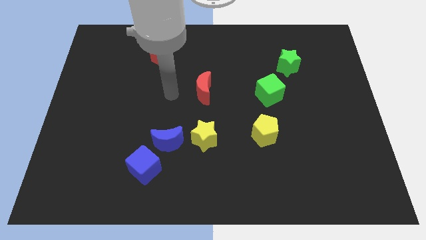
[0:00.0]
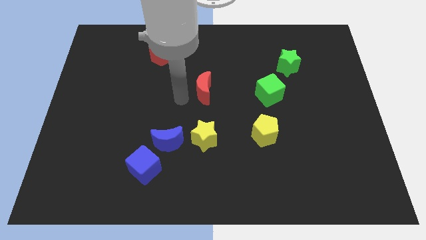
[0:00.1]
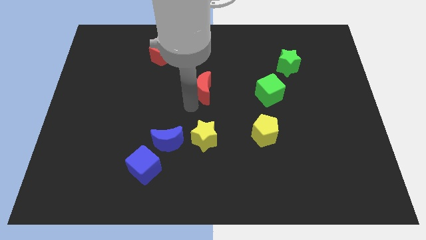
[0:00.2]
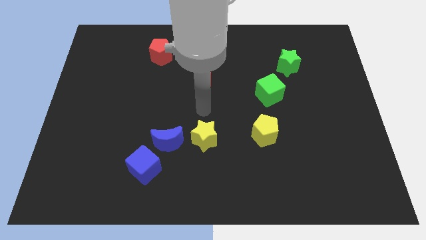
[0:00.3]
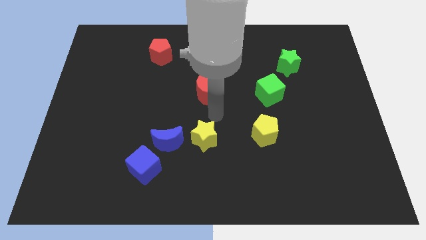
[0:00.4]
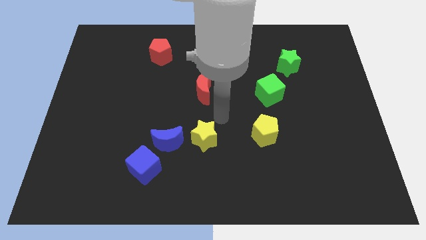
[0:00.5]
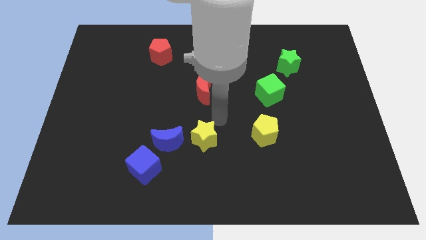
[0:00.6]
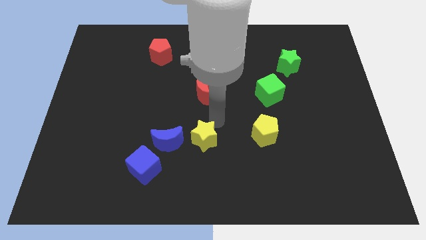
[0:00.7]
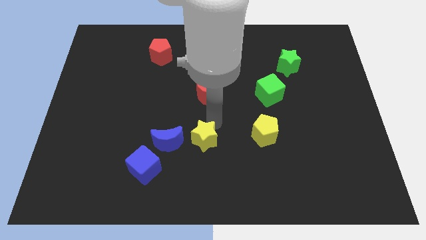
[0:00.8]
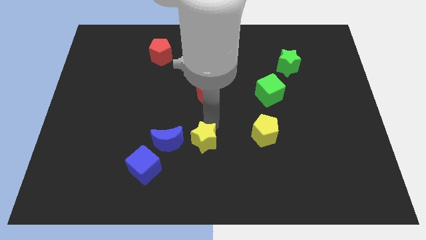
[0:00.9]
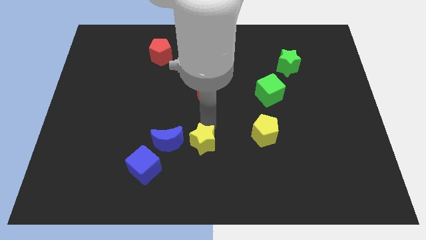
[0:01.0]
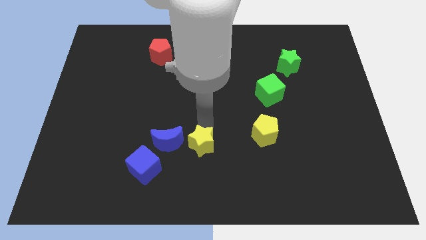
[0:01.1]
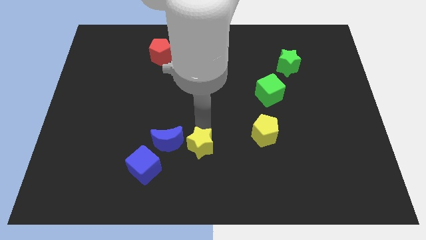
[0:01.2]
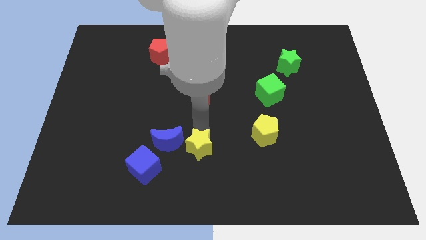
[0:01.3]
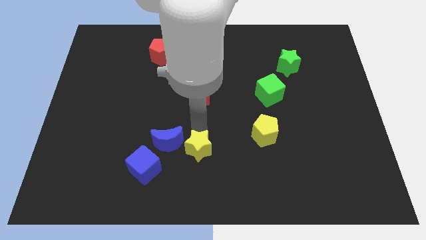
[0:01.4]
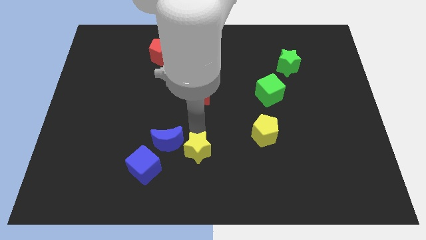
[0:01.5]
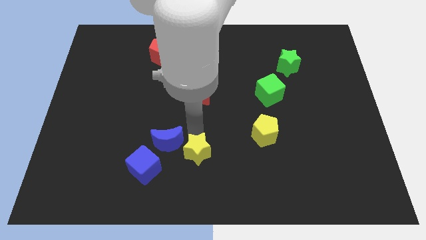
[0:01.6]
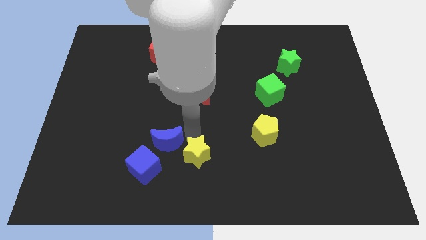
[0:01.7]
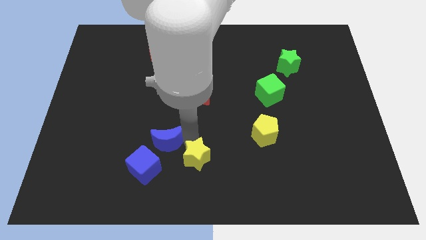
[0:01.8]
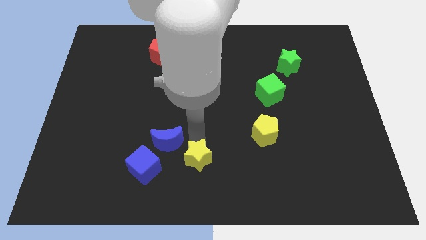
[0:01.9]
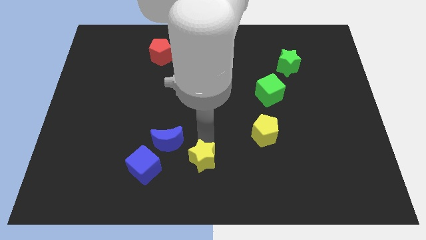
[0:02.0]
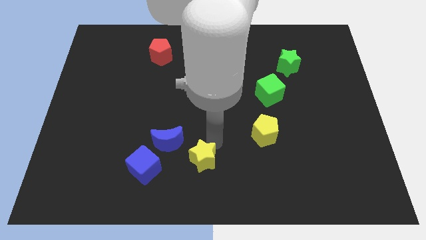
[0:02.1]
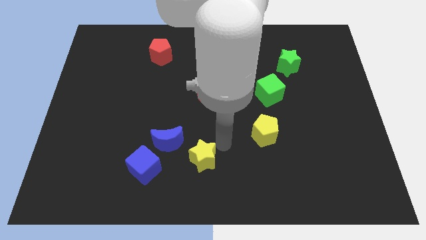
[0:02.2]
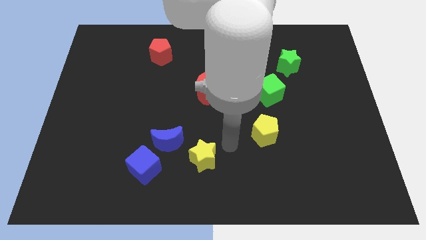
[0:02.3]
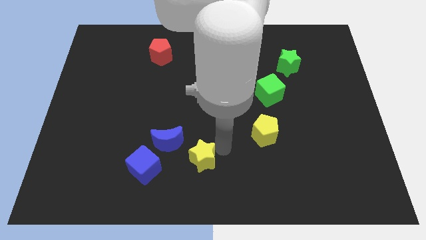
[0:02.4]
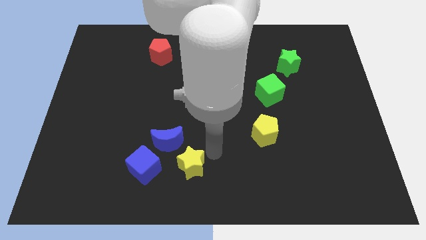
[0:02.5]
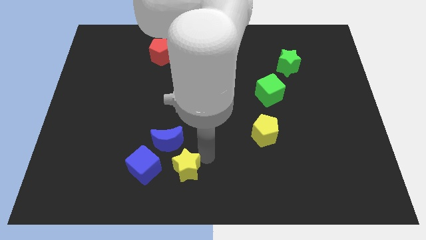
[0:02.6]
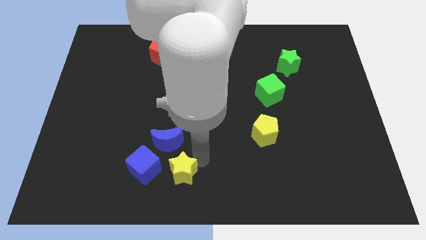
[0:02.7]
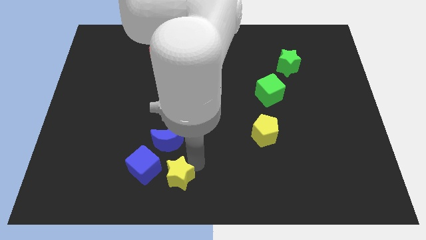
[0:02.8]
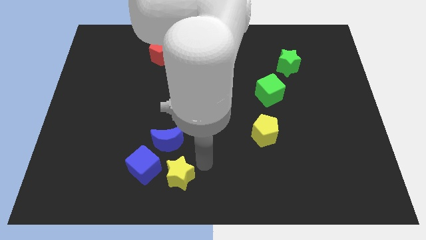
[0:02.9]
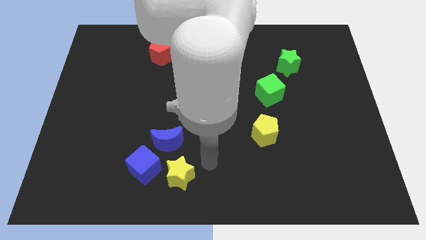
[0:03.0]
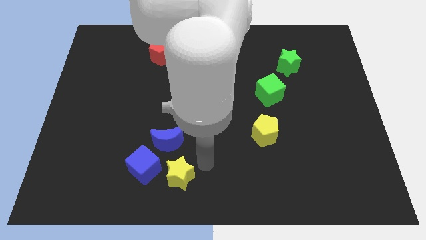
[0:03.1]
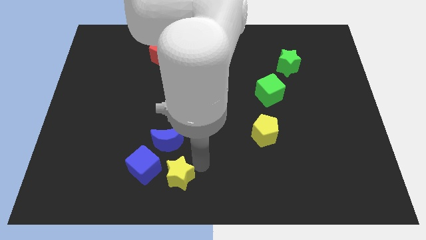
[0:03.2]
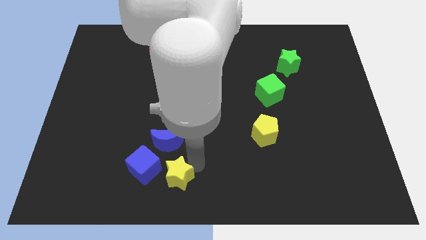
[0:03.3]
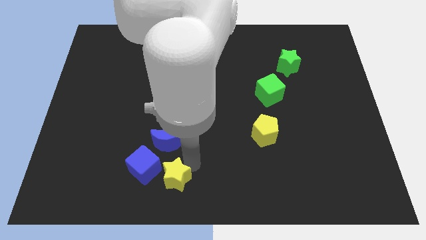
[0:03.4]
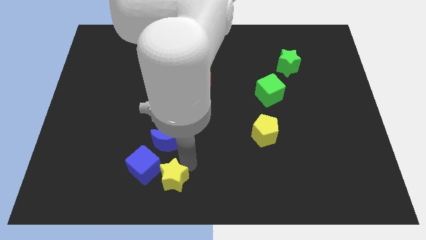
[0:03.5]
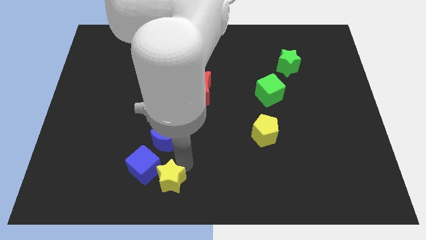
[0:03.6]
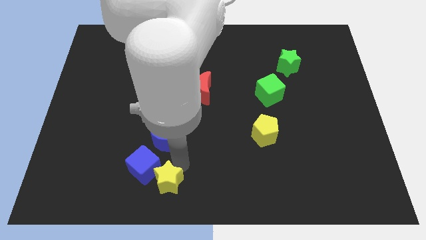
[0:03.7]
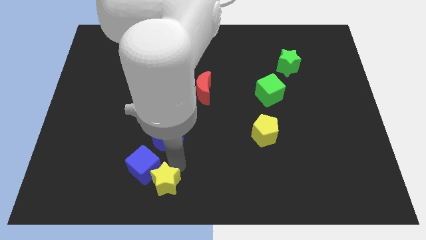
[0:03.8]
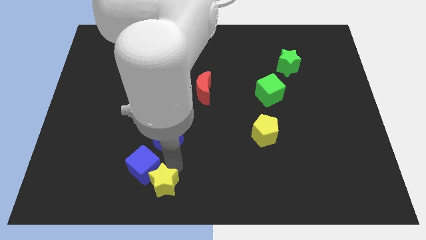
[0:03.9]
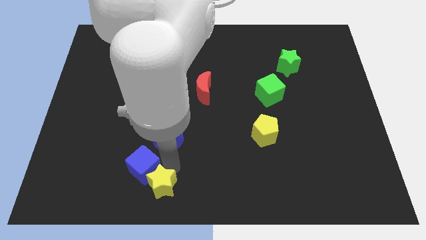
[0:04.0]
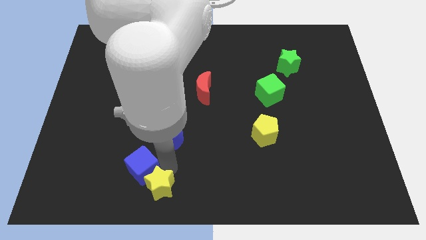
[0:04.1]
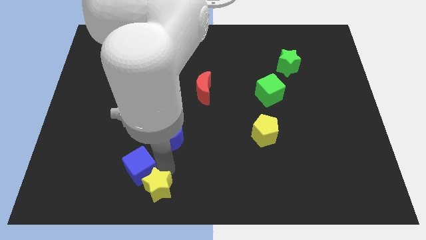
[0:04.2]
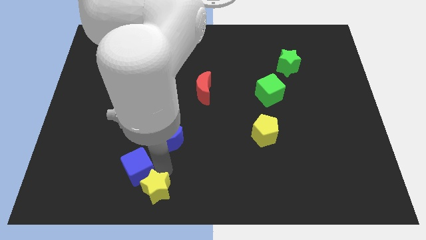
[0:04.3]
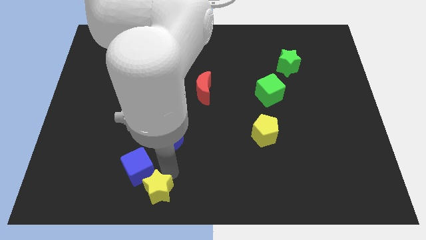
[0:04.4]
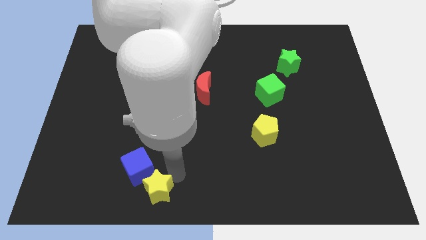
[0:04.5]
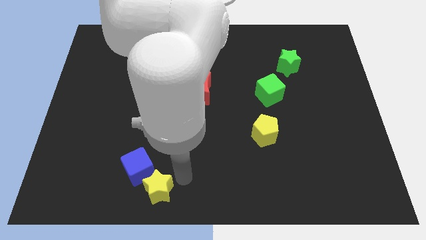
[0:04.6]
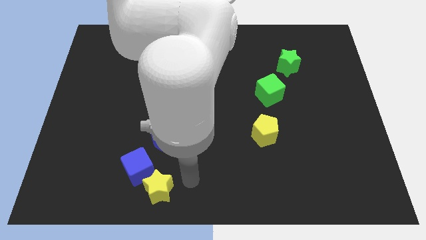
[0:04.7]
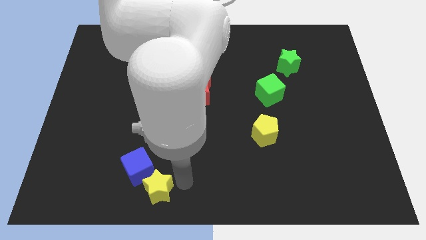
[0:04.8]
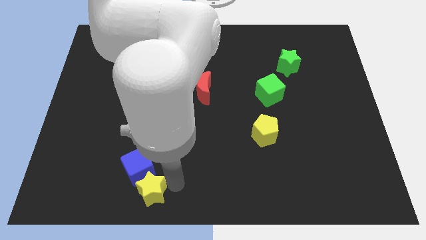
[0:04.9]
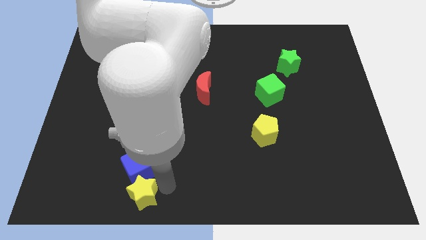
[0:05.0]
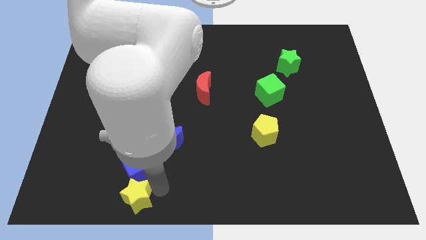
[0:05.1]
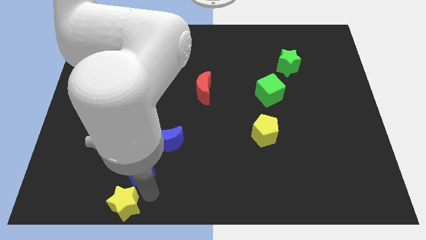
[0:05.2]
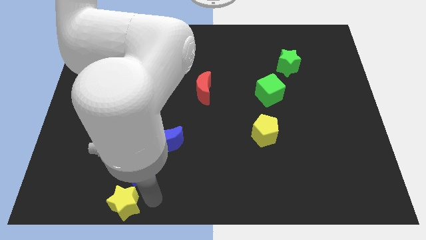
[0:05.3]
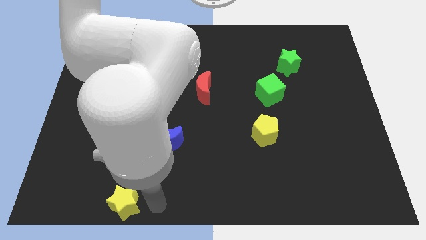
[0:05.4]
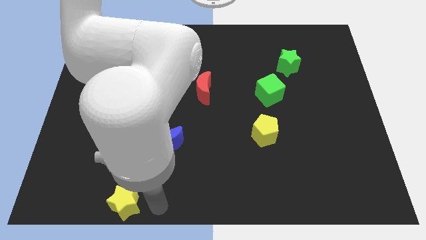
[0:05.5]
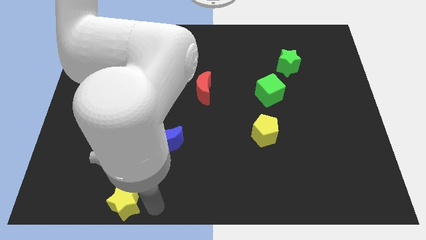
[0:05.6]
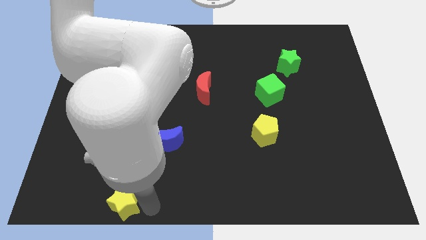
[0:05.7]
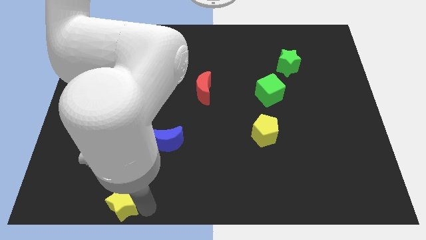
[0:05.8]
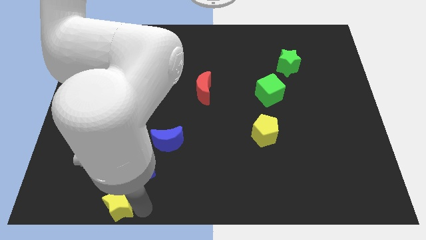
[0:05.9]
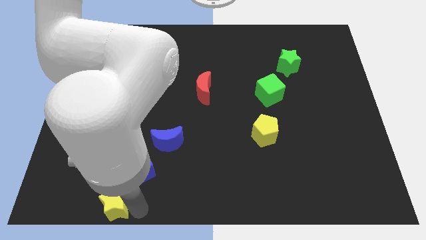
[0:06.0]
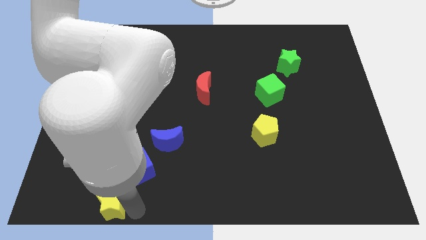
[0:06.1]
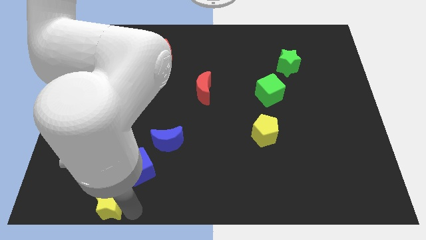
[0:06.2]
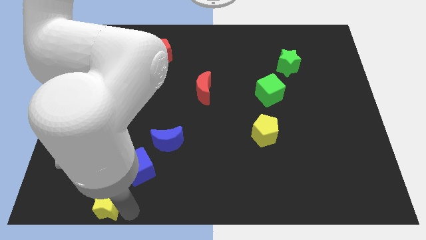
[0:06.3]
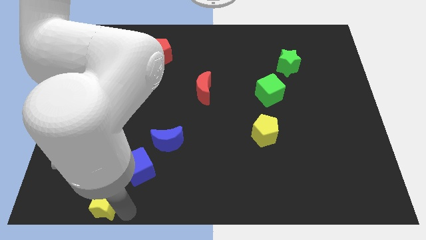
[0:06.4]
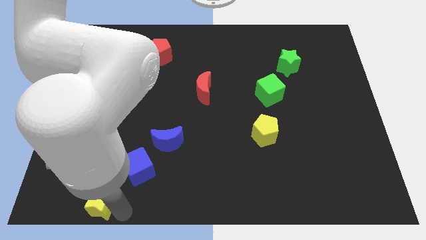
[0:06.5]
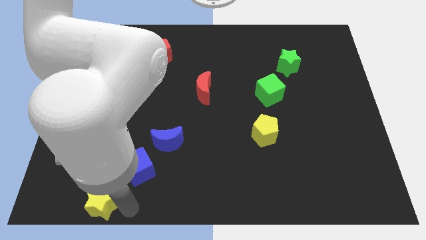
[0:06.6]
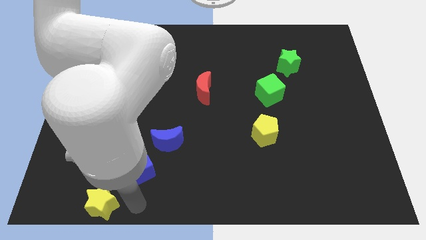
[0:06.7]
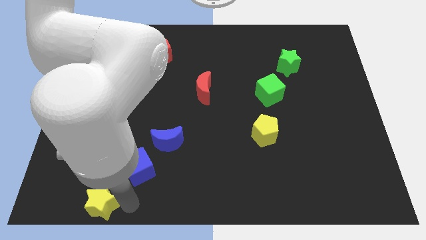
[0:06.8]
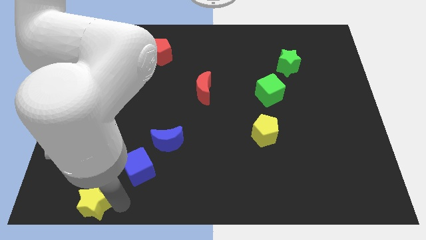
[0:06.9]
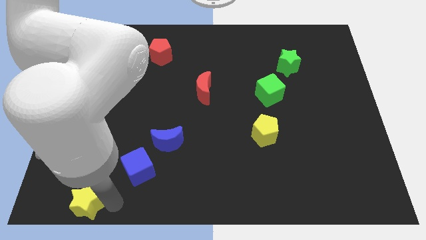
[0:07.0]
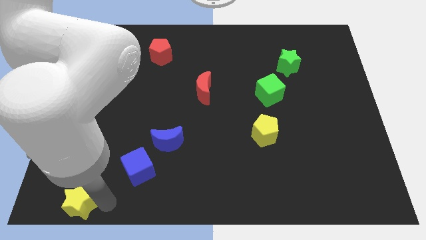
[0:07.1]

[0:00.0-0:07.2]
push the yellow star to the bottom left of the board
